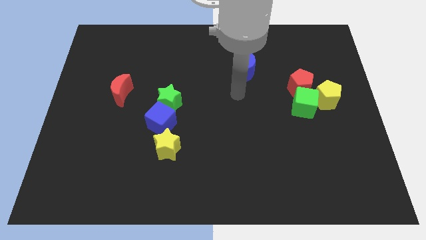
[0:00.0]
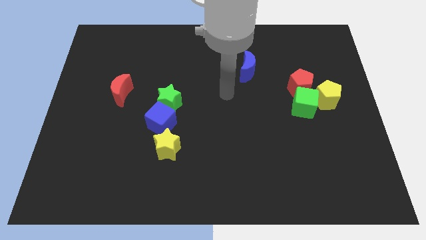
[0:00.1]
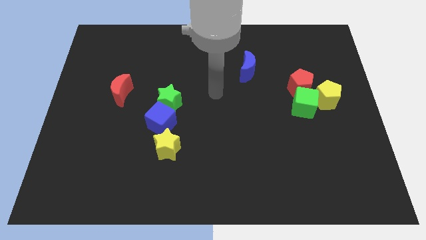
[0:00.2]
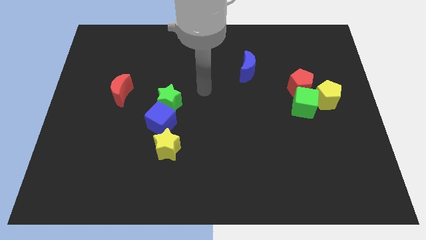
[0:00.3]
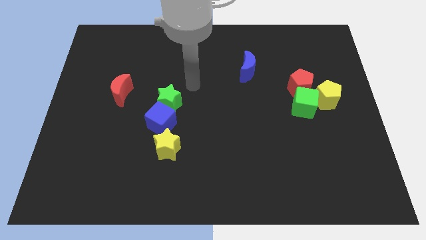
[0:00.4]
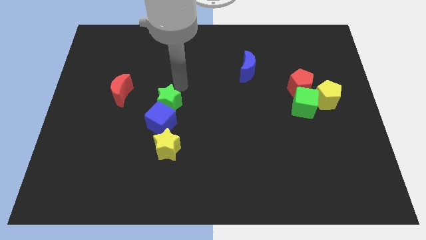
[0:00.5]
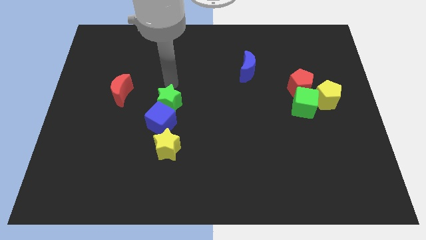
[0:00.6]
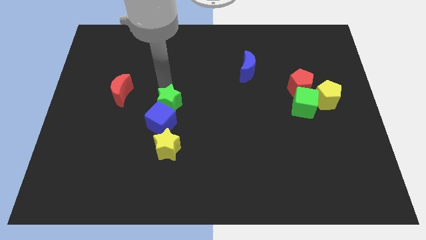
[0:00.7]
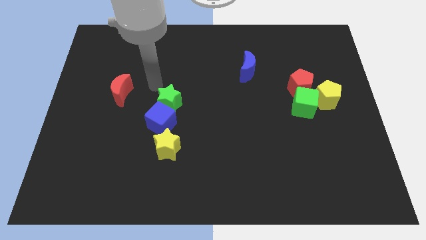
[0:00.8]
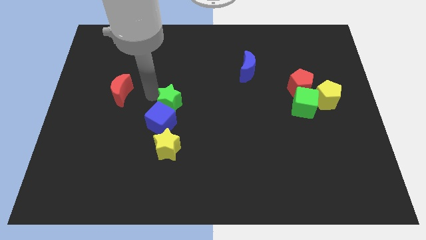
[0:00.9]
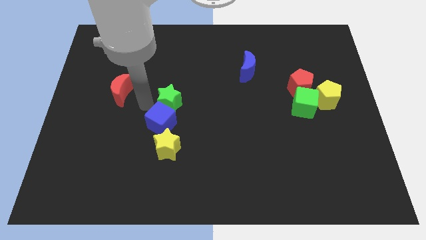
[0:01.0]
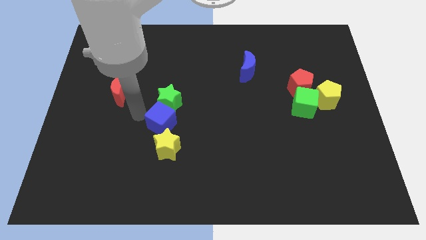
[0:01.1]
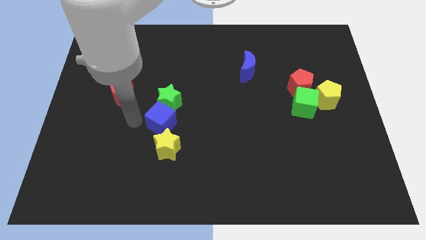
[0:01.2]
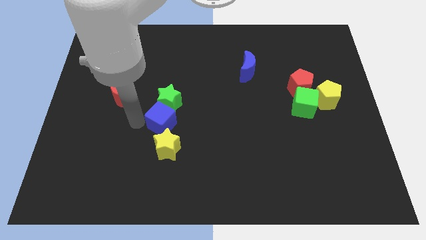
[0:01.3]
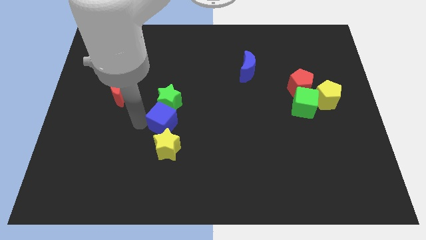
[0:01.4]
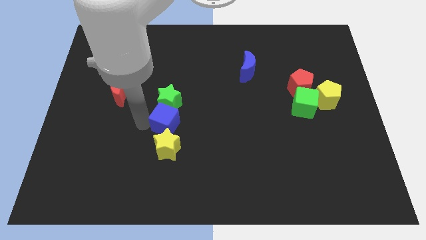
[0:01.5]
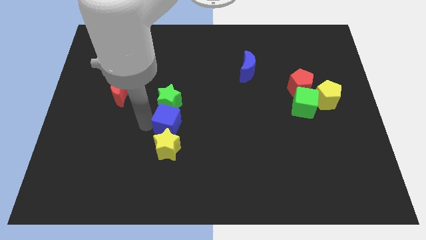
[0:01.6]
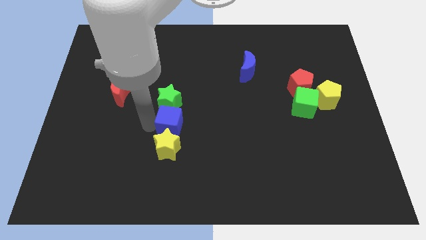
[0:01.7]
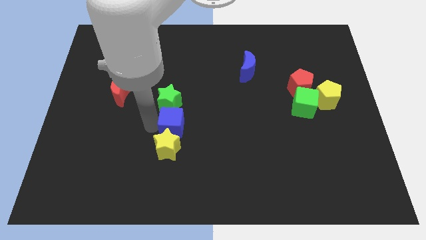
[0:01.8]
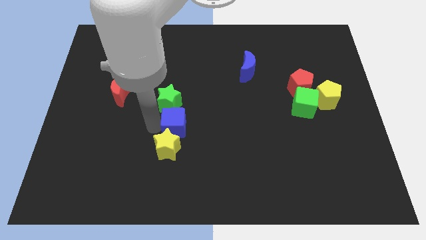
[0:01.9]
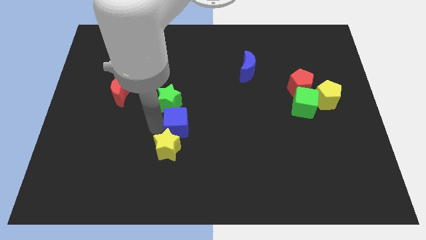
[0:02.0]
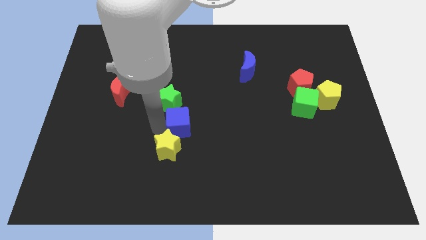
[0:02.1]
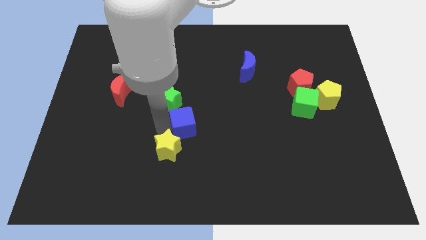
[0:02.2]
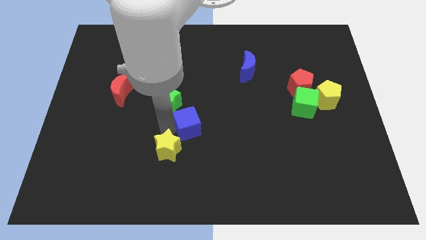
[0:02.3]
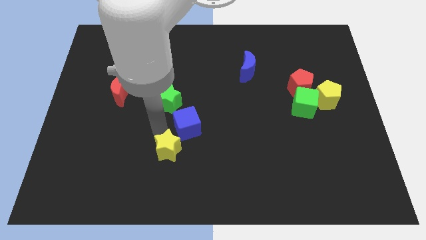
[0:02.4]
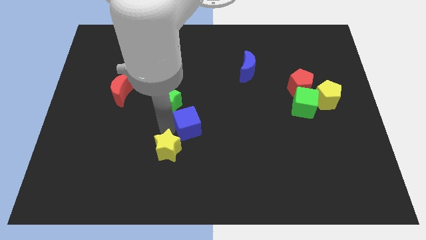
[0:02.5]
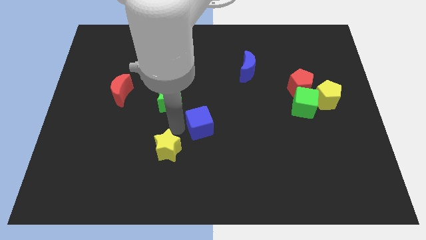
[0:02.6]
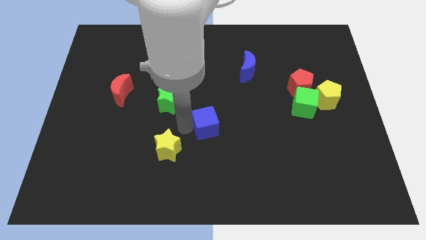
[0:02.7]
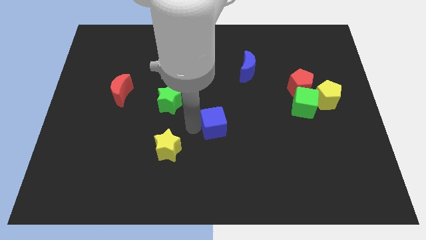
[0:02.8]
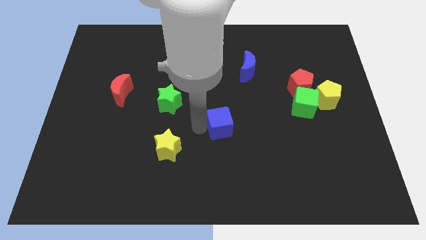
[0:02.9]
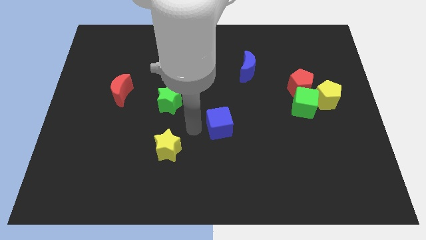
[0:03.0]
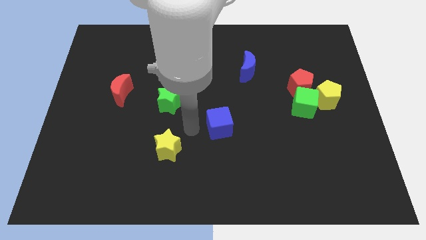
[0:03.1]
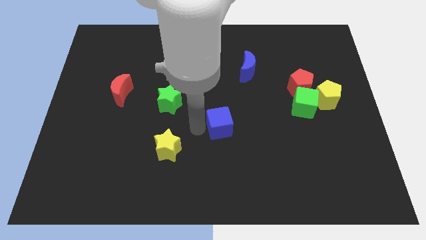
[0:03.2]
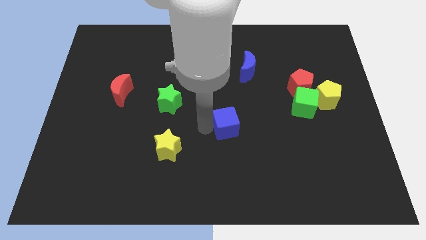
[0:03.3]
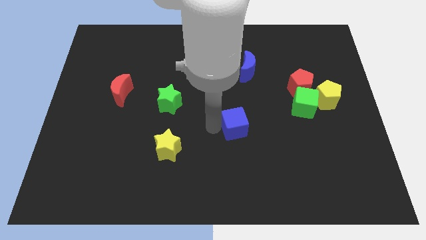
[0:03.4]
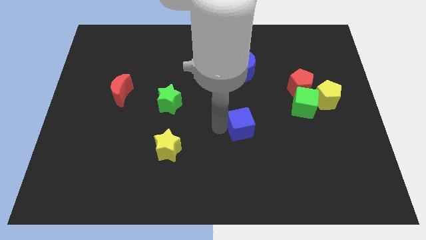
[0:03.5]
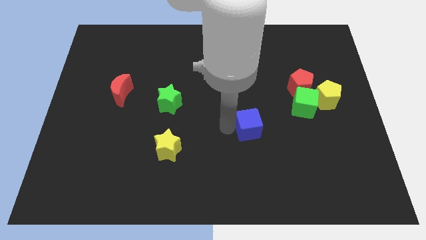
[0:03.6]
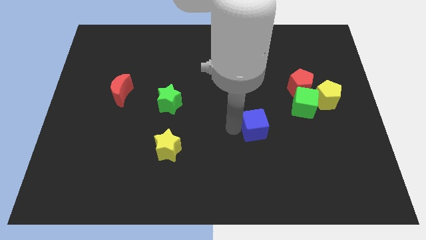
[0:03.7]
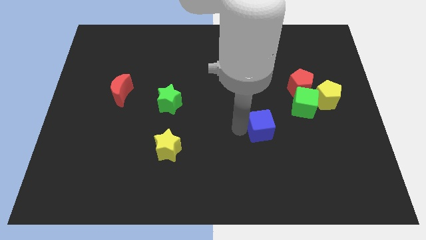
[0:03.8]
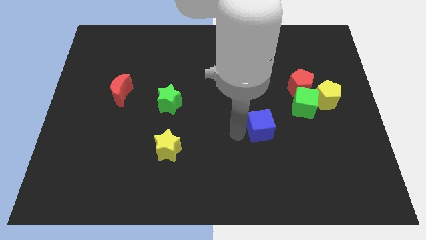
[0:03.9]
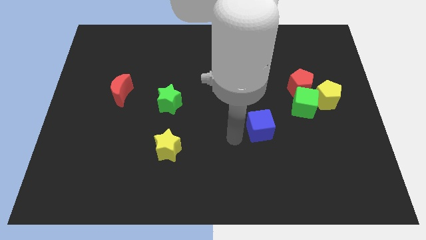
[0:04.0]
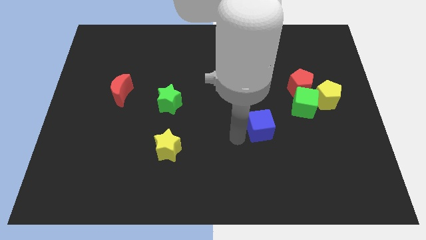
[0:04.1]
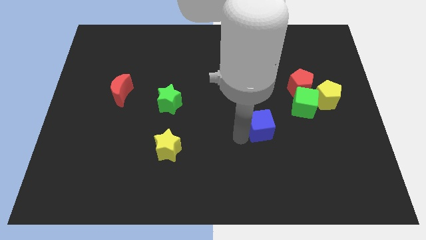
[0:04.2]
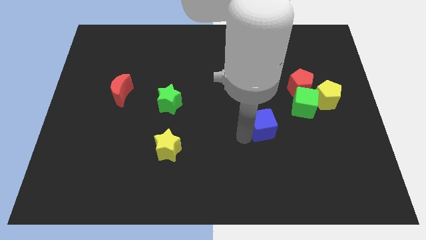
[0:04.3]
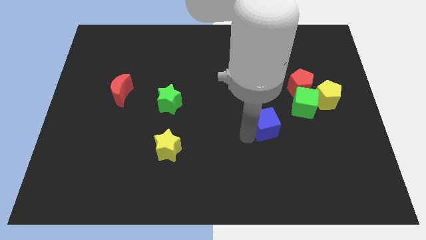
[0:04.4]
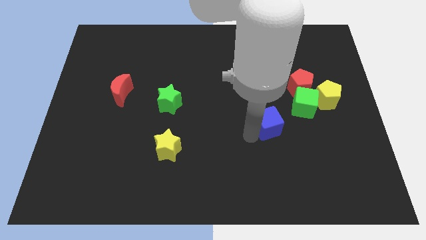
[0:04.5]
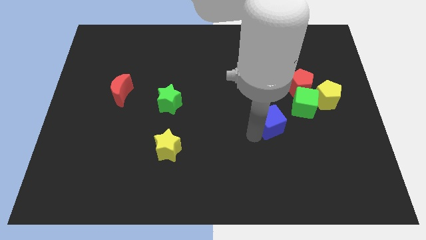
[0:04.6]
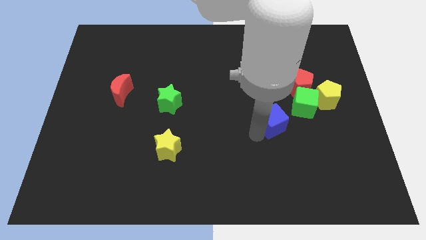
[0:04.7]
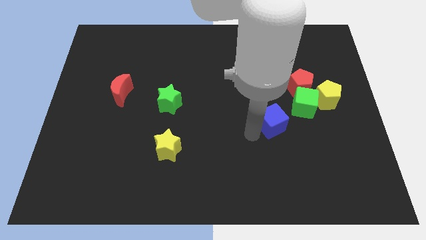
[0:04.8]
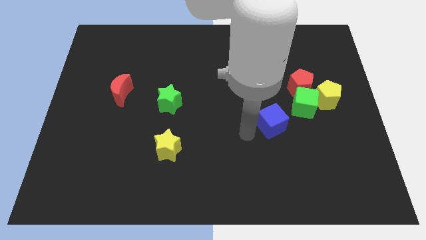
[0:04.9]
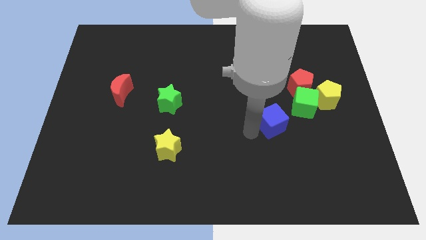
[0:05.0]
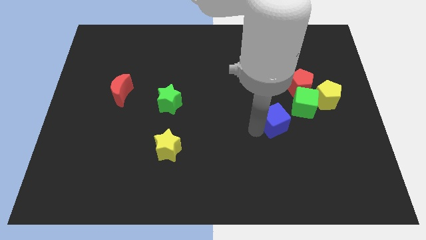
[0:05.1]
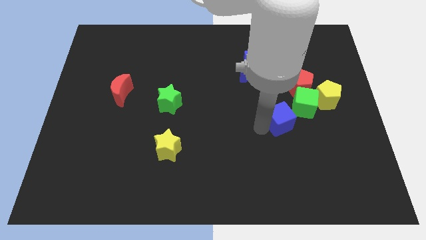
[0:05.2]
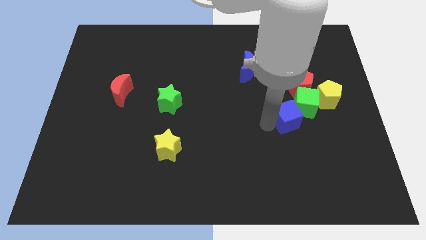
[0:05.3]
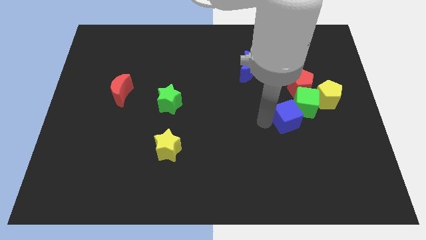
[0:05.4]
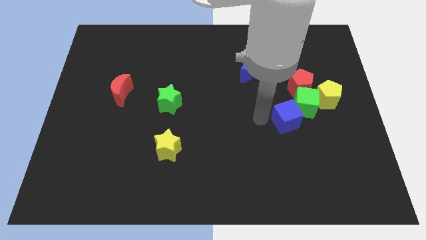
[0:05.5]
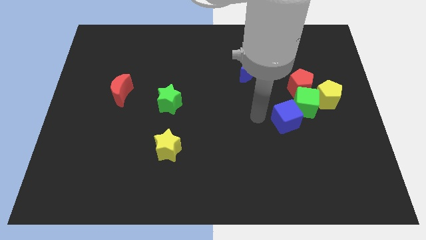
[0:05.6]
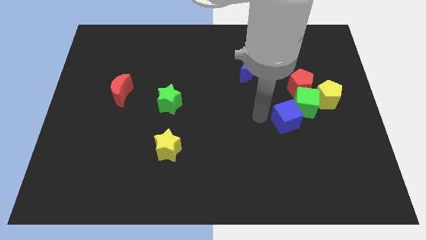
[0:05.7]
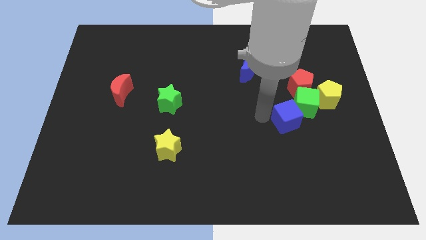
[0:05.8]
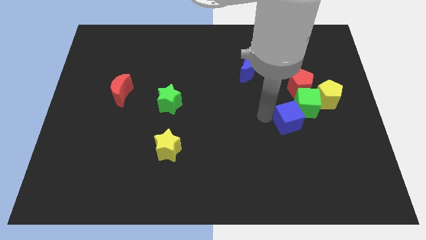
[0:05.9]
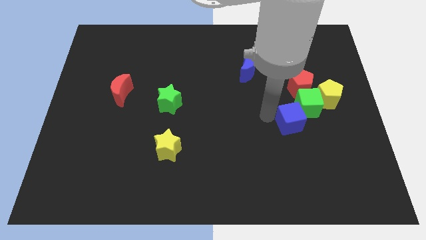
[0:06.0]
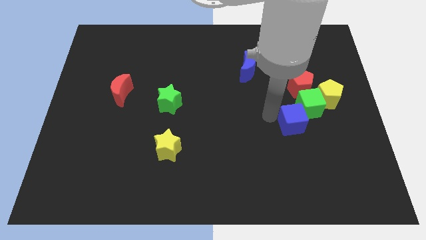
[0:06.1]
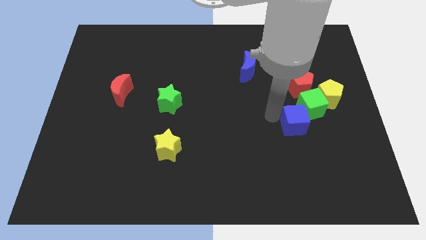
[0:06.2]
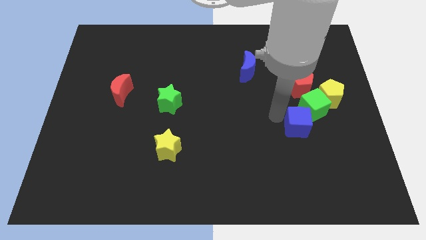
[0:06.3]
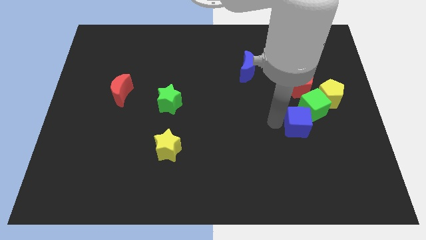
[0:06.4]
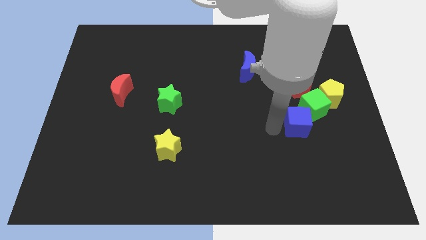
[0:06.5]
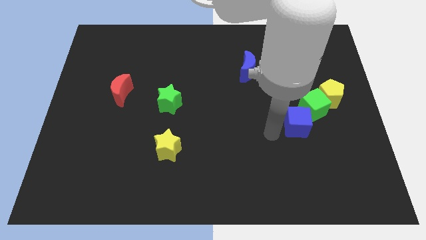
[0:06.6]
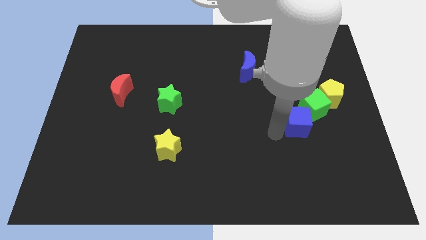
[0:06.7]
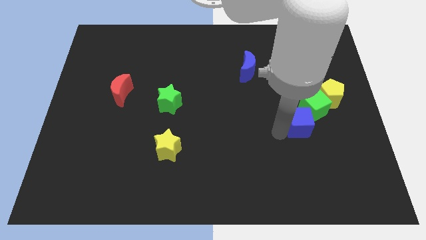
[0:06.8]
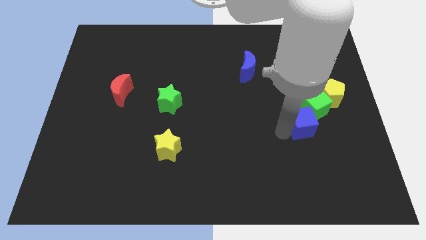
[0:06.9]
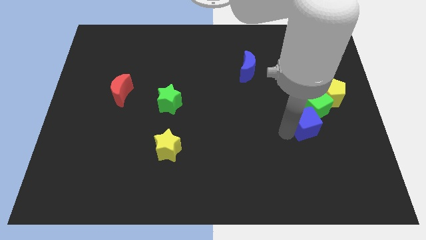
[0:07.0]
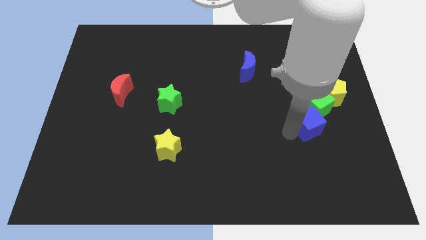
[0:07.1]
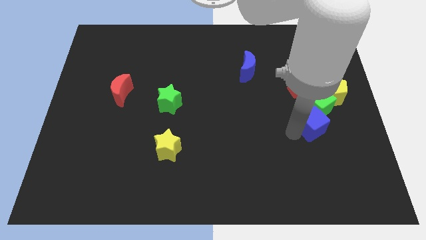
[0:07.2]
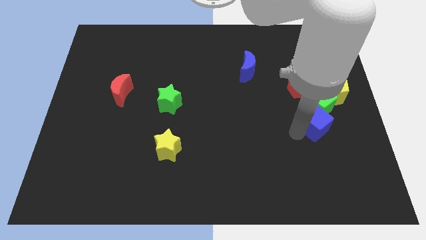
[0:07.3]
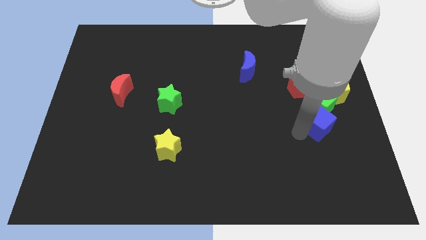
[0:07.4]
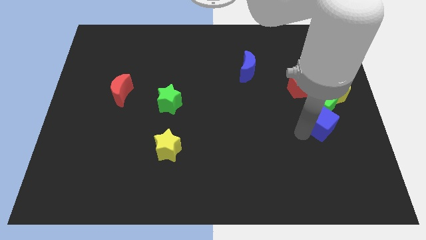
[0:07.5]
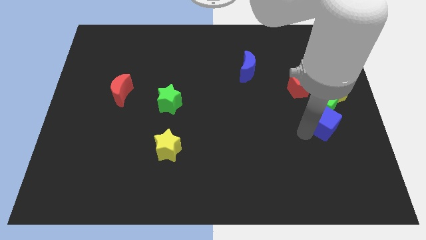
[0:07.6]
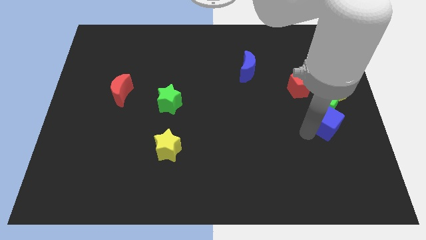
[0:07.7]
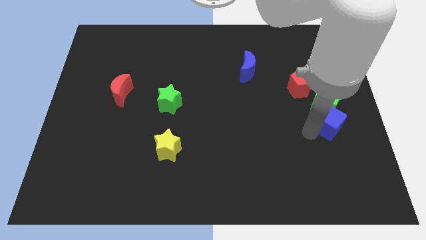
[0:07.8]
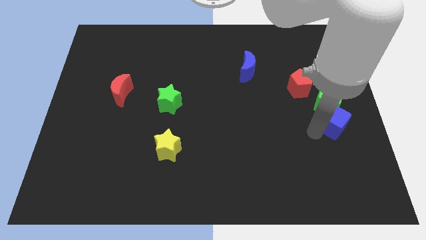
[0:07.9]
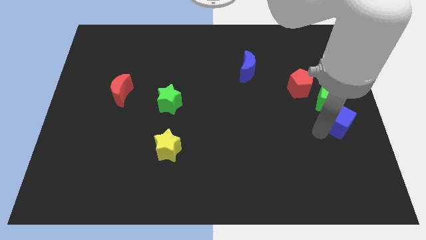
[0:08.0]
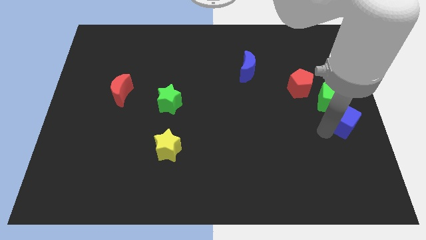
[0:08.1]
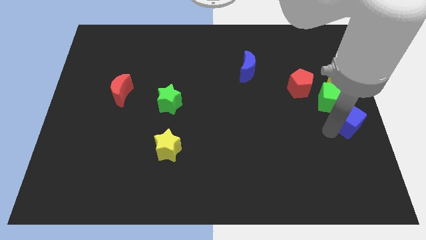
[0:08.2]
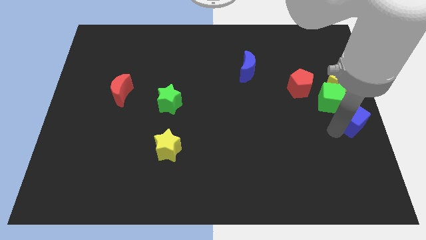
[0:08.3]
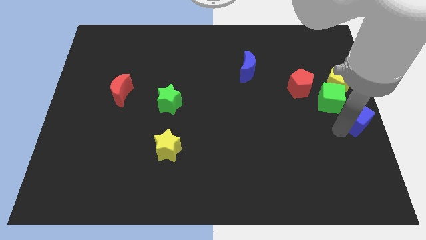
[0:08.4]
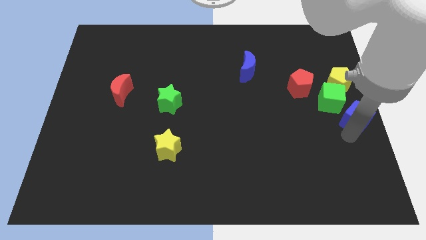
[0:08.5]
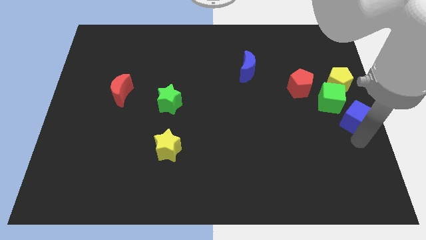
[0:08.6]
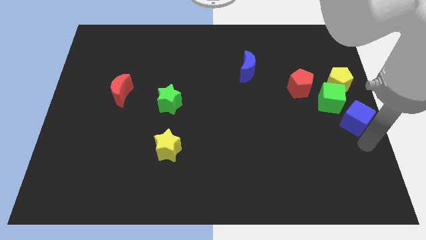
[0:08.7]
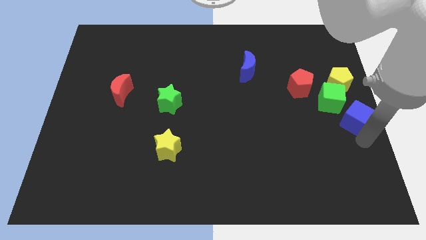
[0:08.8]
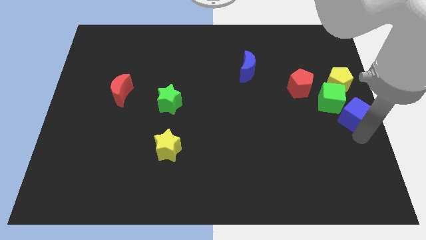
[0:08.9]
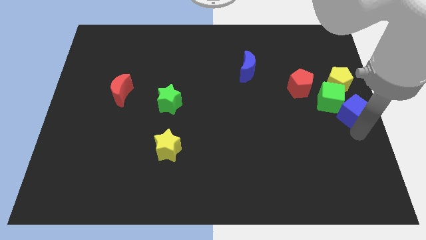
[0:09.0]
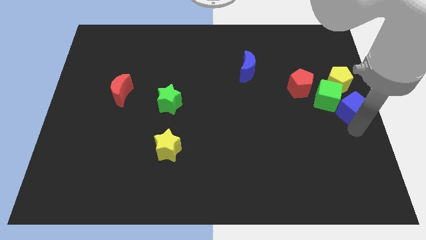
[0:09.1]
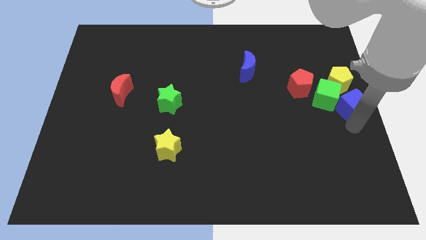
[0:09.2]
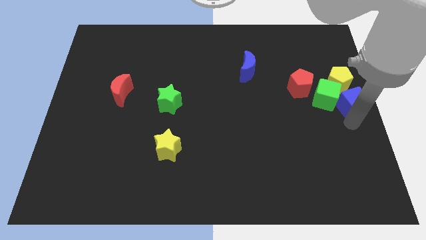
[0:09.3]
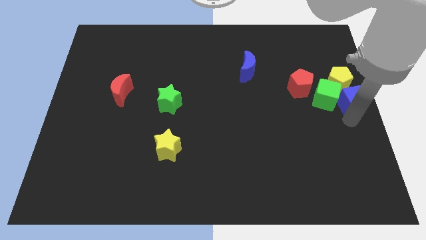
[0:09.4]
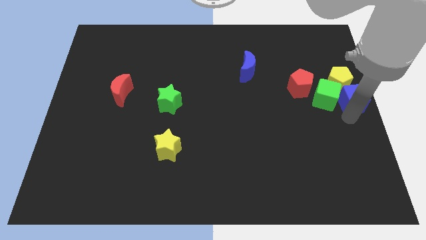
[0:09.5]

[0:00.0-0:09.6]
move the blue cube towards the yellow pentagon
